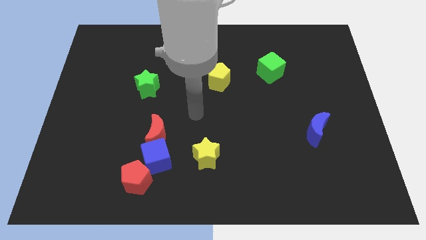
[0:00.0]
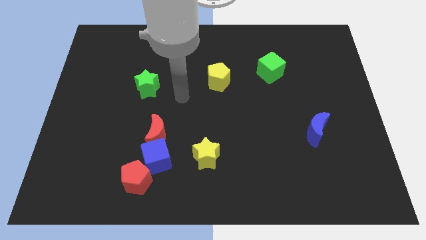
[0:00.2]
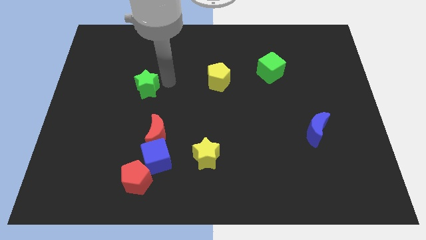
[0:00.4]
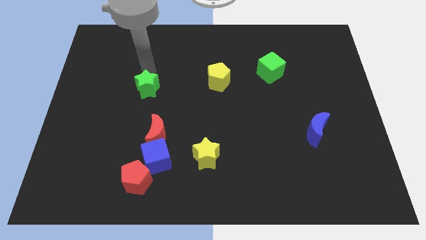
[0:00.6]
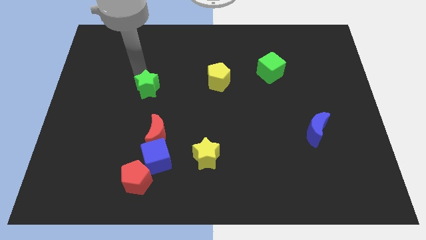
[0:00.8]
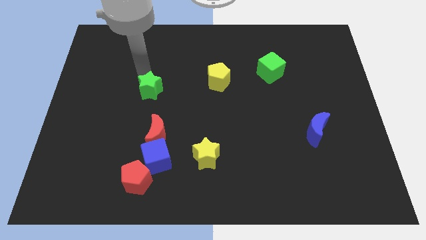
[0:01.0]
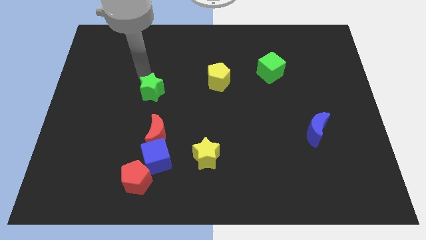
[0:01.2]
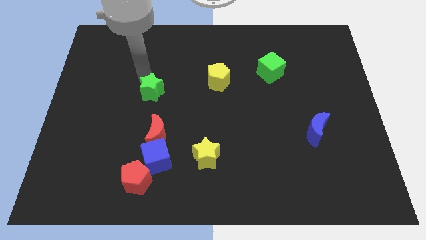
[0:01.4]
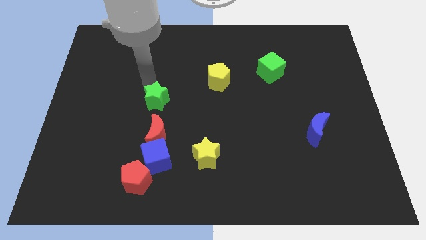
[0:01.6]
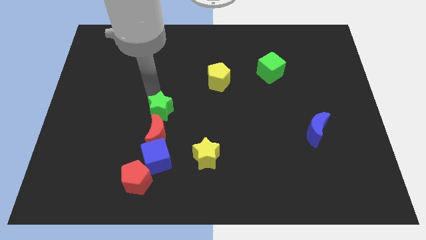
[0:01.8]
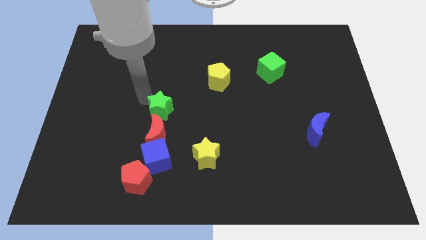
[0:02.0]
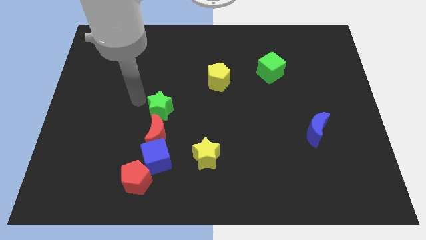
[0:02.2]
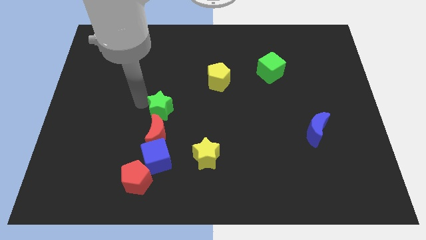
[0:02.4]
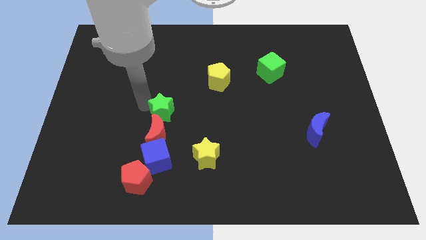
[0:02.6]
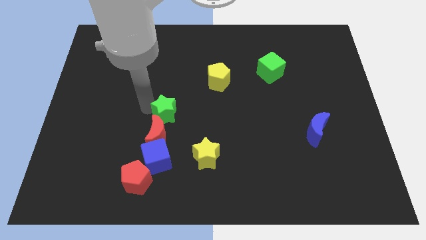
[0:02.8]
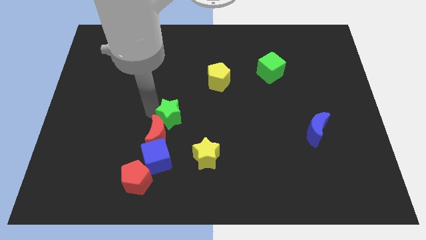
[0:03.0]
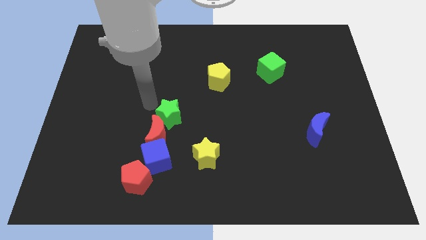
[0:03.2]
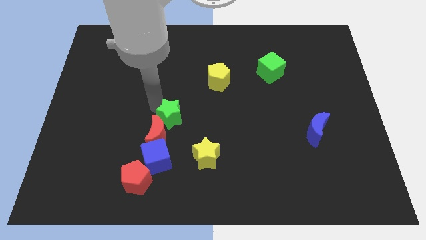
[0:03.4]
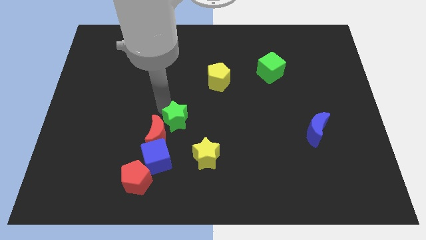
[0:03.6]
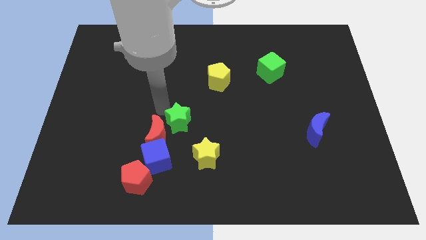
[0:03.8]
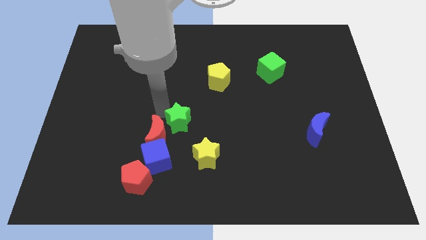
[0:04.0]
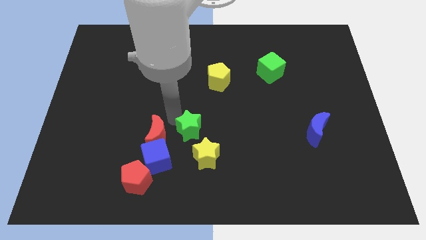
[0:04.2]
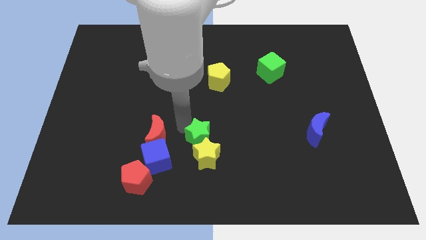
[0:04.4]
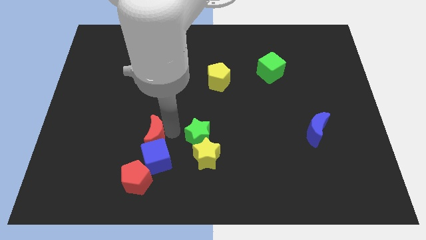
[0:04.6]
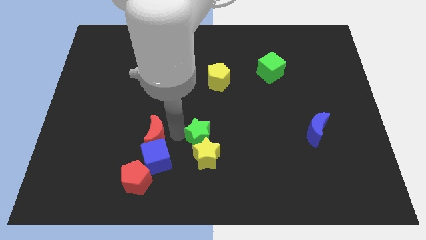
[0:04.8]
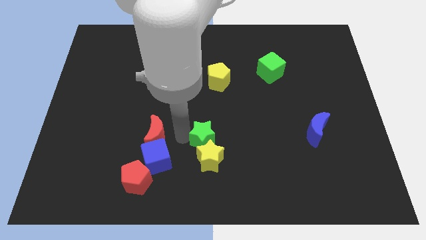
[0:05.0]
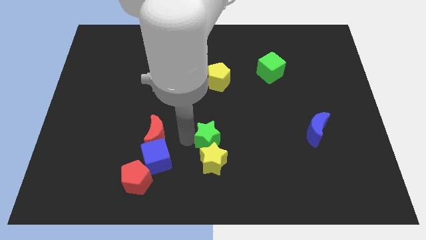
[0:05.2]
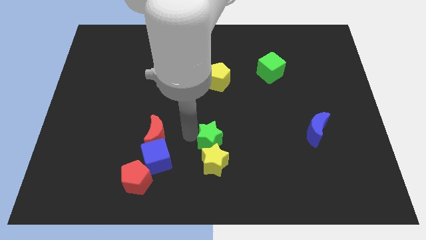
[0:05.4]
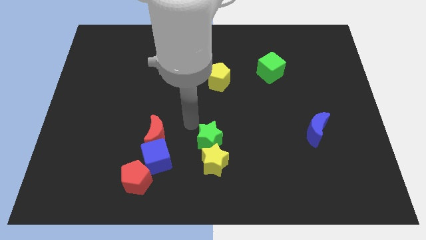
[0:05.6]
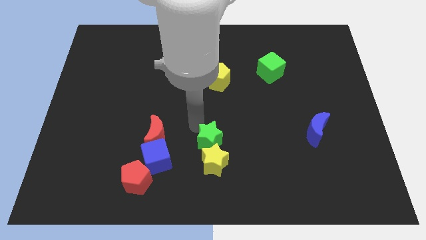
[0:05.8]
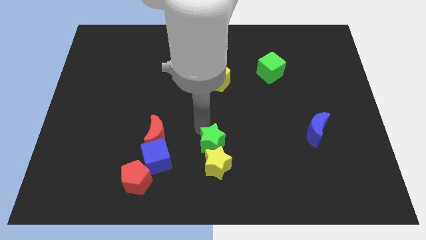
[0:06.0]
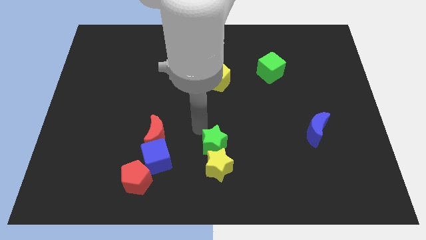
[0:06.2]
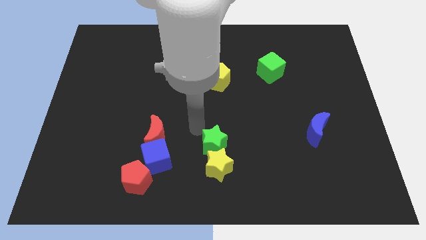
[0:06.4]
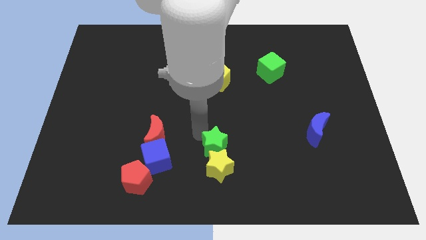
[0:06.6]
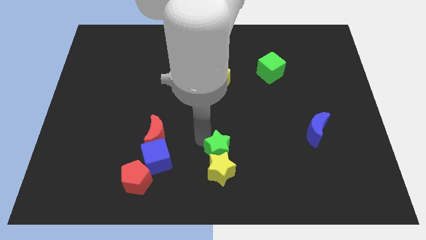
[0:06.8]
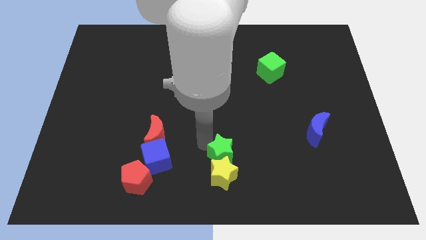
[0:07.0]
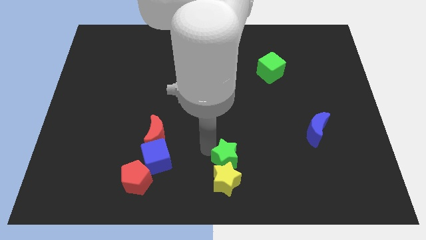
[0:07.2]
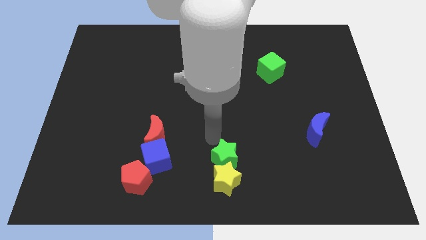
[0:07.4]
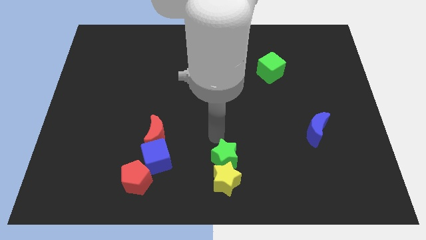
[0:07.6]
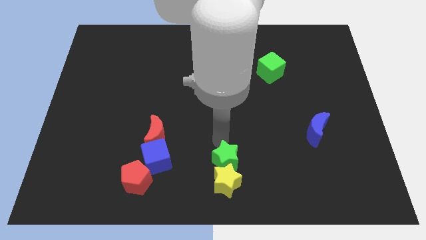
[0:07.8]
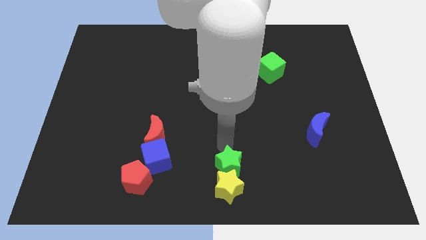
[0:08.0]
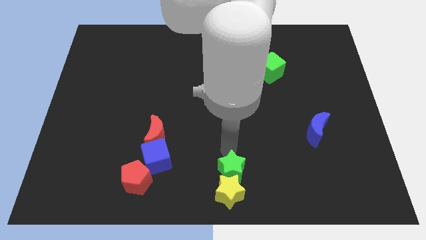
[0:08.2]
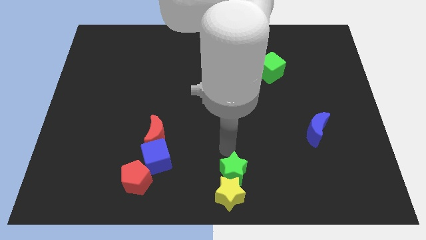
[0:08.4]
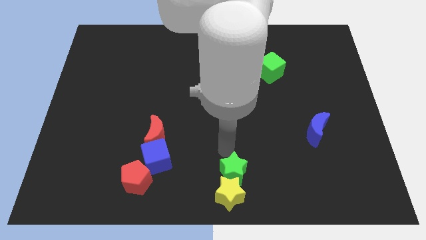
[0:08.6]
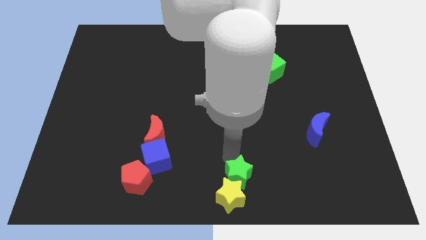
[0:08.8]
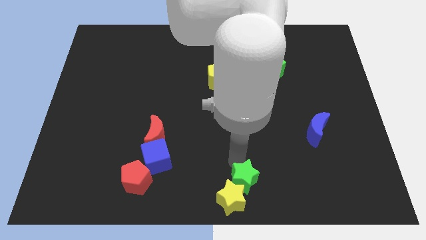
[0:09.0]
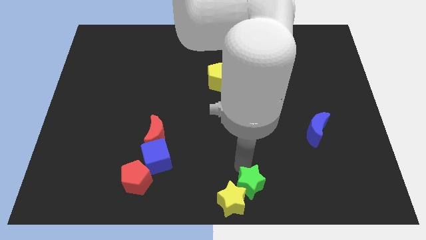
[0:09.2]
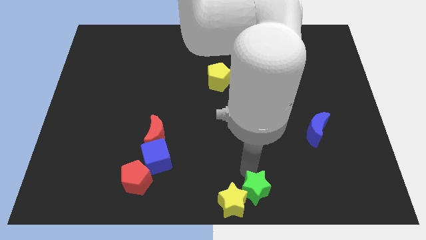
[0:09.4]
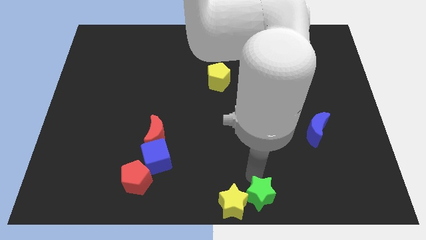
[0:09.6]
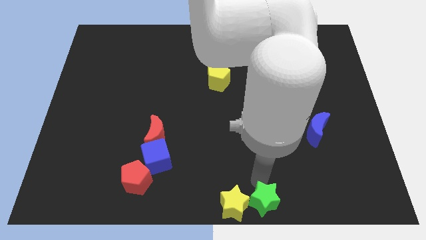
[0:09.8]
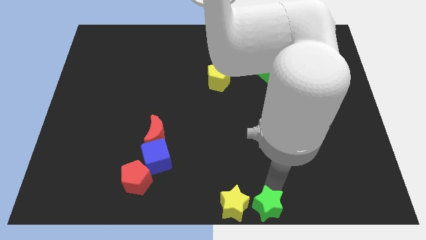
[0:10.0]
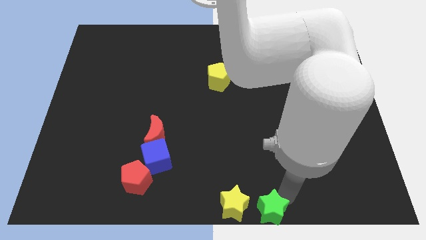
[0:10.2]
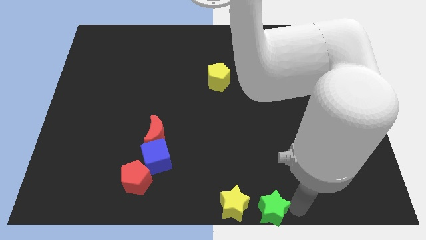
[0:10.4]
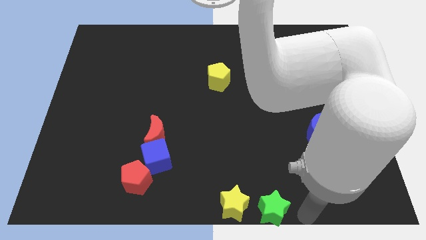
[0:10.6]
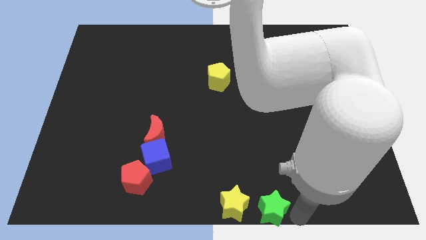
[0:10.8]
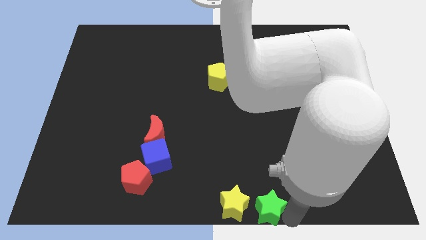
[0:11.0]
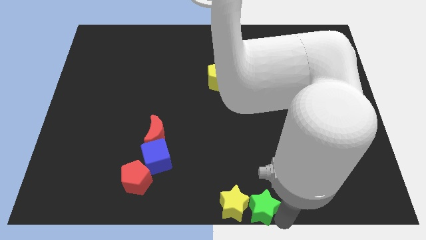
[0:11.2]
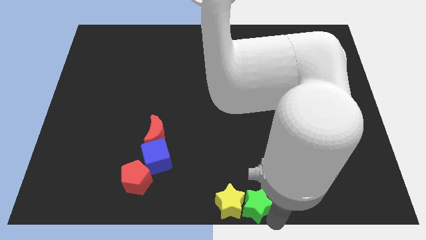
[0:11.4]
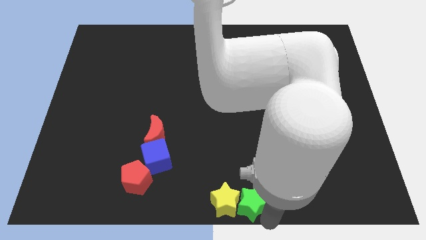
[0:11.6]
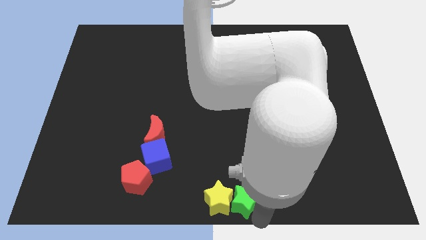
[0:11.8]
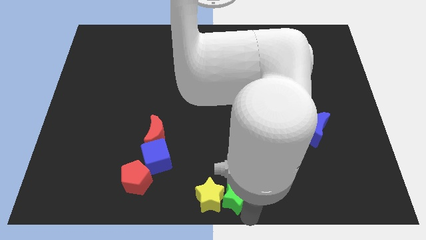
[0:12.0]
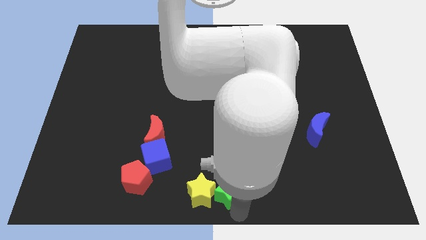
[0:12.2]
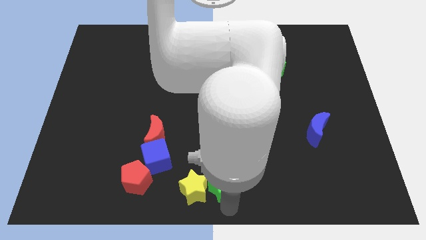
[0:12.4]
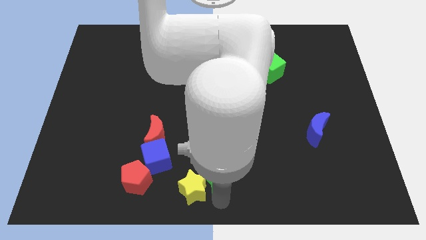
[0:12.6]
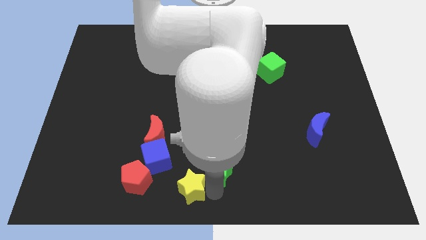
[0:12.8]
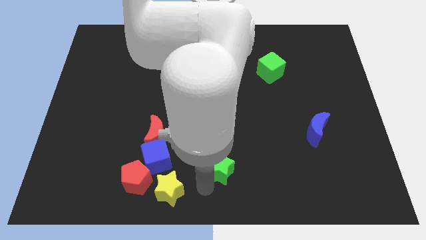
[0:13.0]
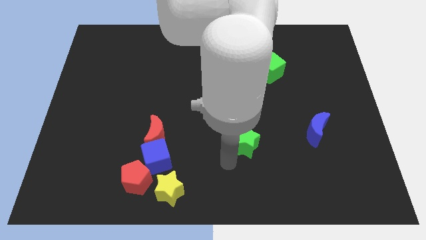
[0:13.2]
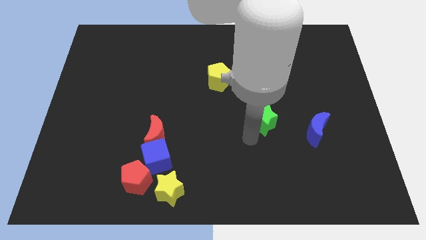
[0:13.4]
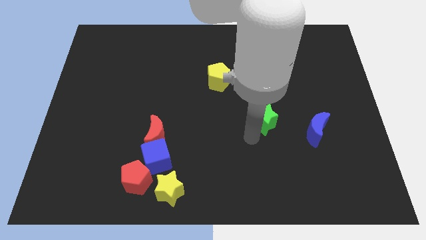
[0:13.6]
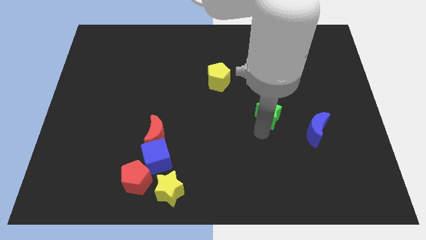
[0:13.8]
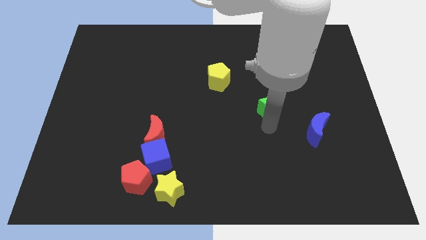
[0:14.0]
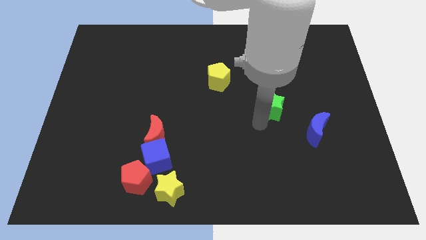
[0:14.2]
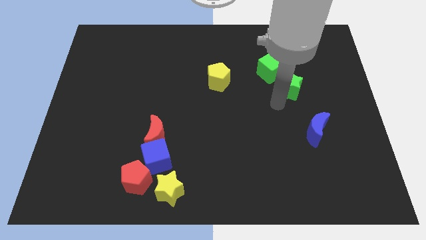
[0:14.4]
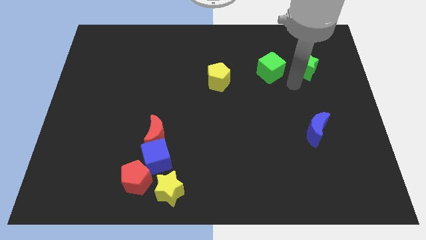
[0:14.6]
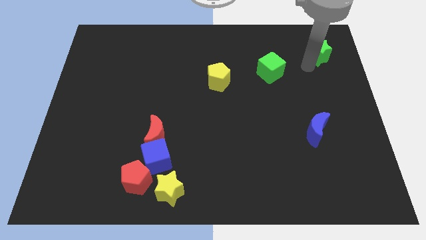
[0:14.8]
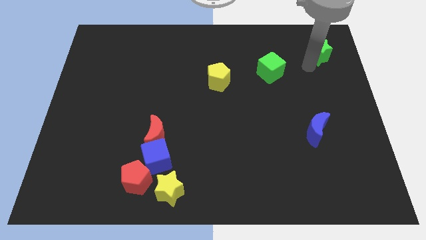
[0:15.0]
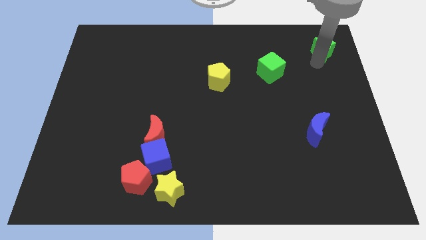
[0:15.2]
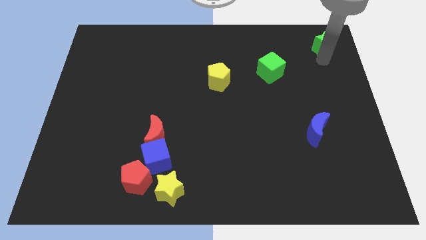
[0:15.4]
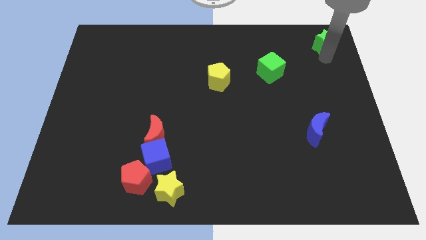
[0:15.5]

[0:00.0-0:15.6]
put the green star to the top right of the board

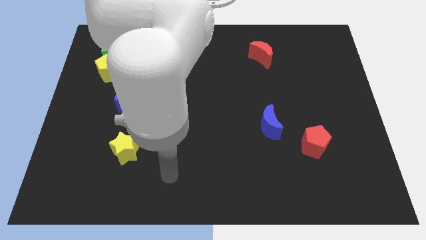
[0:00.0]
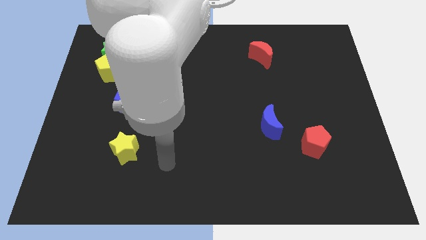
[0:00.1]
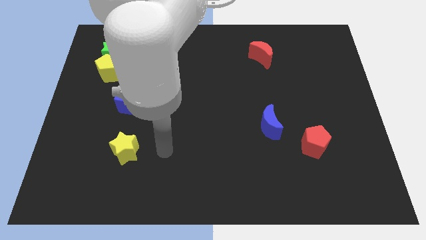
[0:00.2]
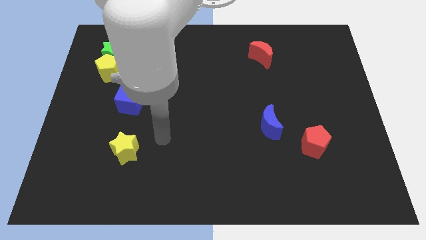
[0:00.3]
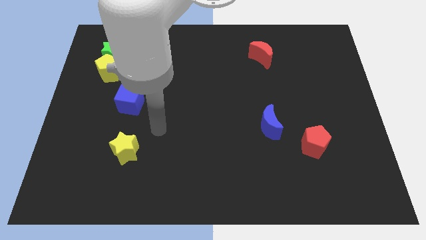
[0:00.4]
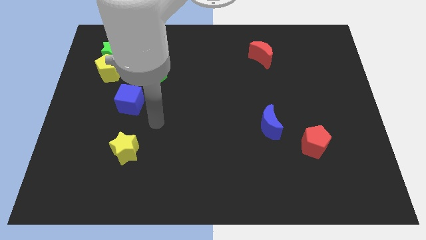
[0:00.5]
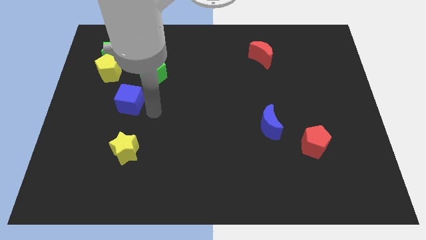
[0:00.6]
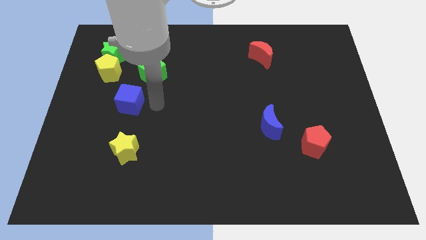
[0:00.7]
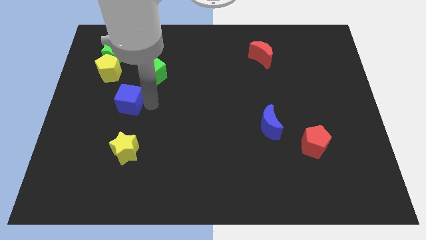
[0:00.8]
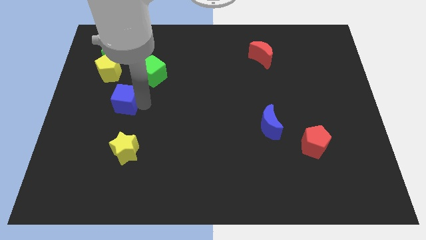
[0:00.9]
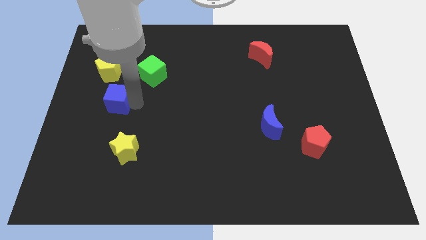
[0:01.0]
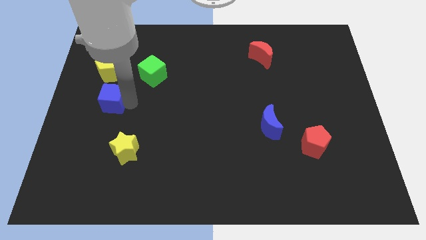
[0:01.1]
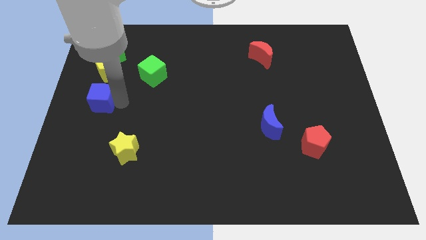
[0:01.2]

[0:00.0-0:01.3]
put the blue cube to the center left
